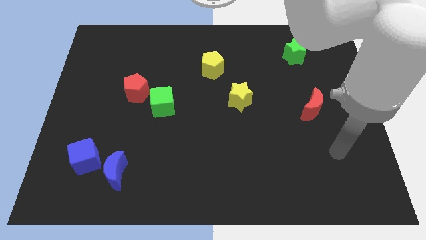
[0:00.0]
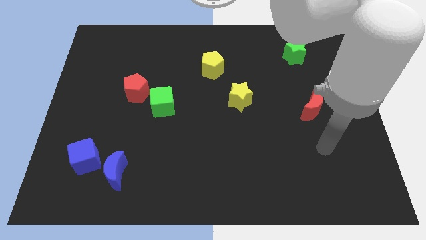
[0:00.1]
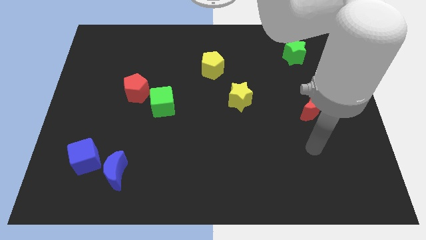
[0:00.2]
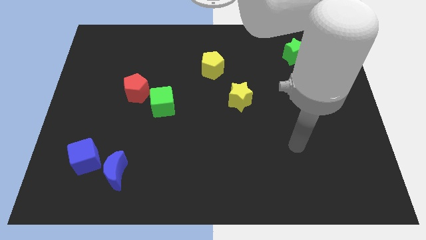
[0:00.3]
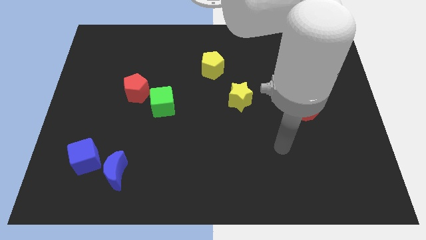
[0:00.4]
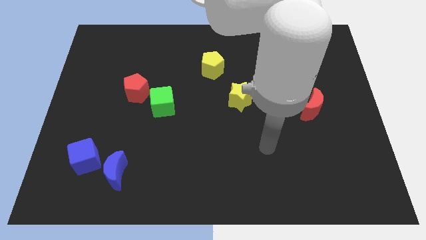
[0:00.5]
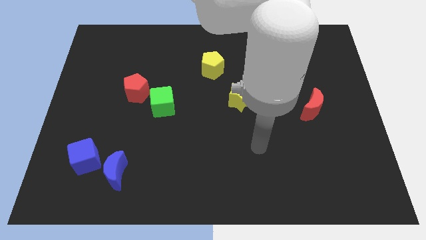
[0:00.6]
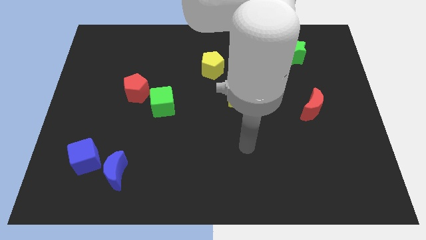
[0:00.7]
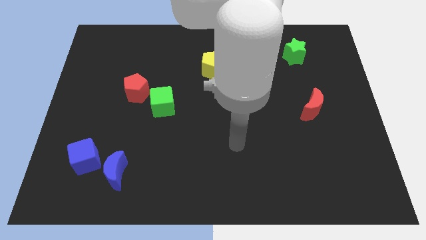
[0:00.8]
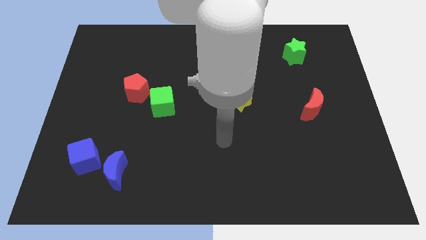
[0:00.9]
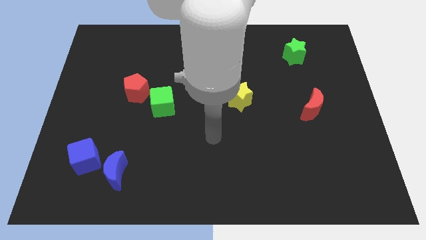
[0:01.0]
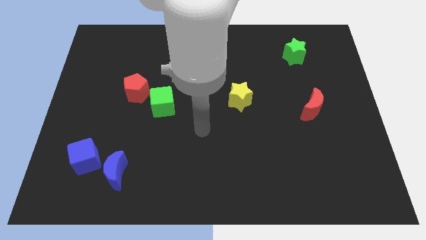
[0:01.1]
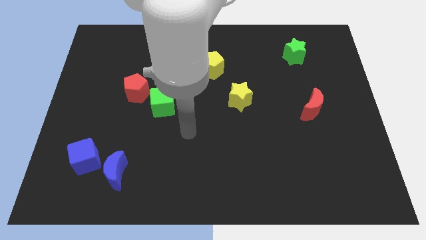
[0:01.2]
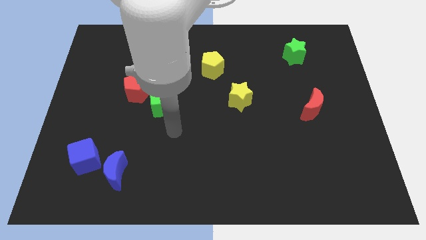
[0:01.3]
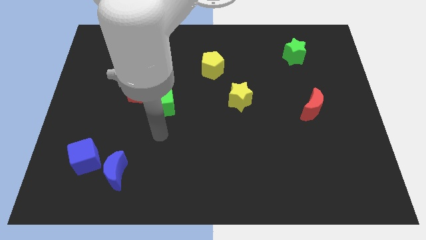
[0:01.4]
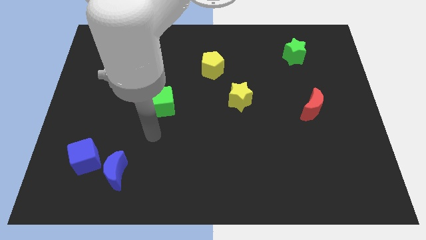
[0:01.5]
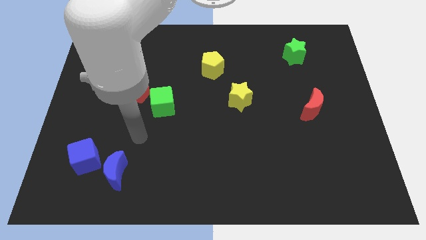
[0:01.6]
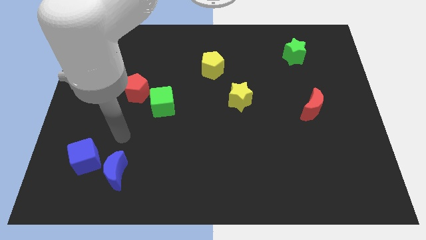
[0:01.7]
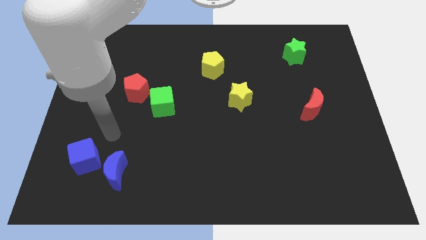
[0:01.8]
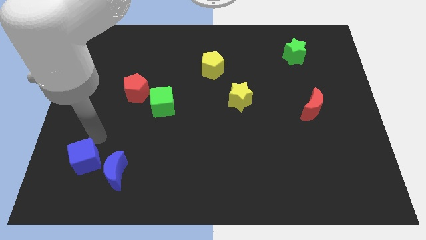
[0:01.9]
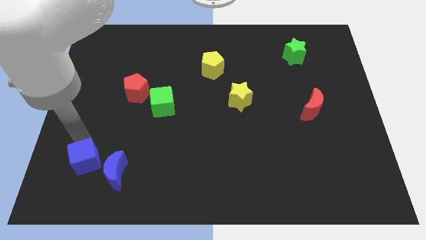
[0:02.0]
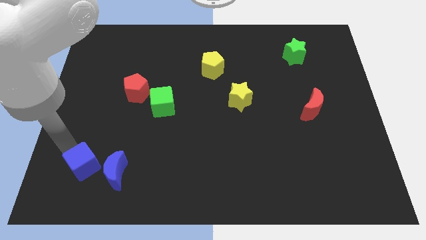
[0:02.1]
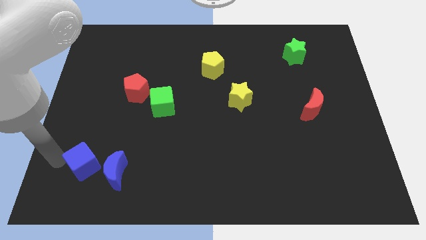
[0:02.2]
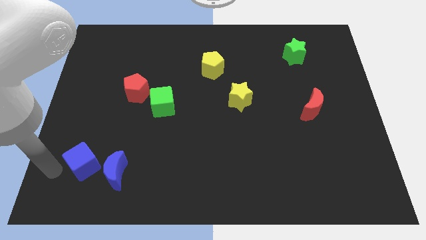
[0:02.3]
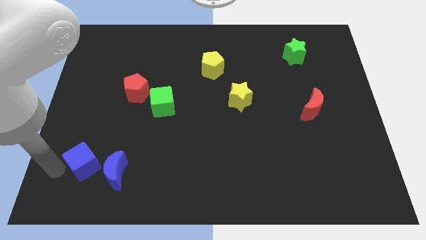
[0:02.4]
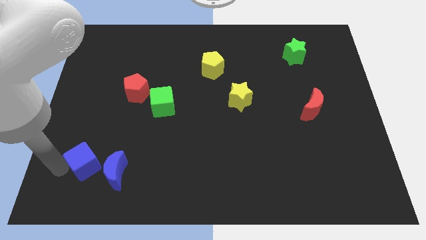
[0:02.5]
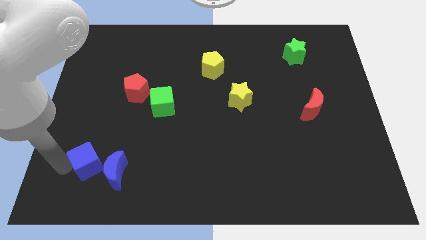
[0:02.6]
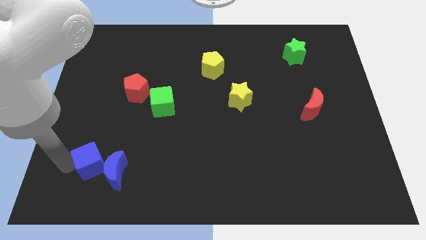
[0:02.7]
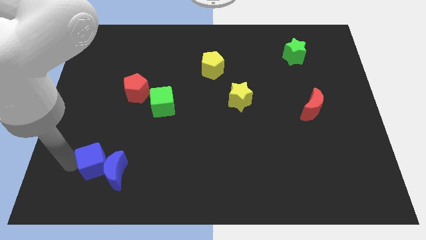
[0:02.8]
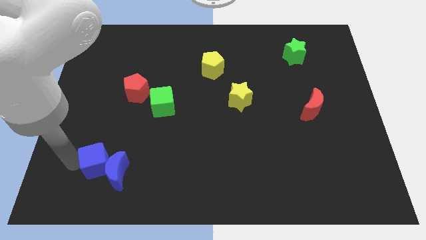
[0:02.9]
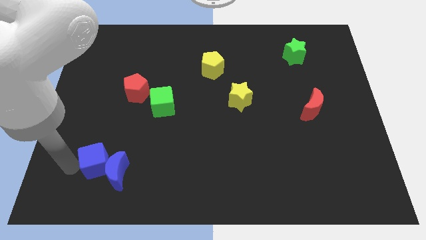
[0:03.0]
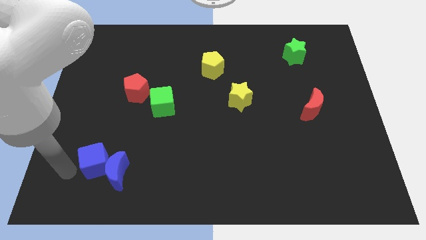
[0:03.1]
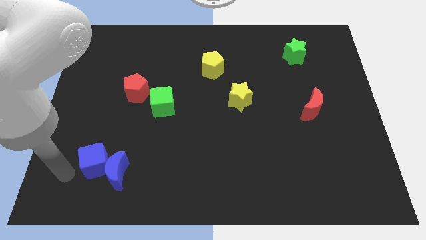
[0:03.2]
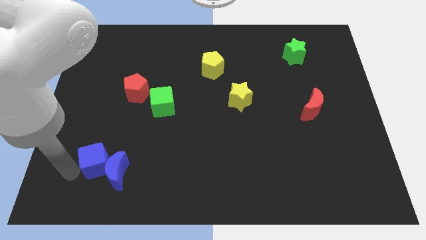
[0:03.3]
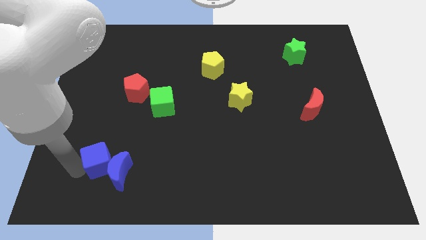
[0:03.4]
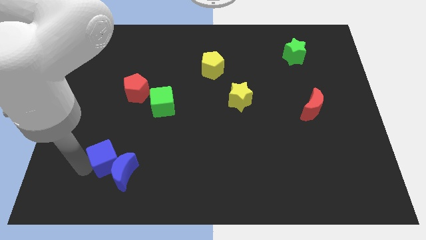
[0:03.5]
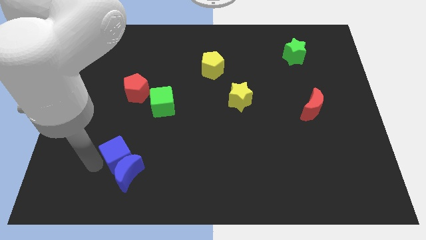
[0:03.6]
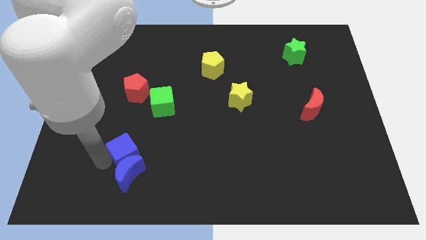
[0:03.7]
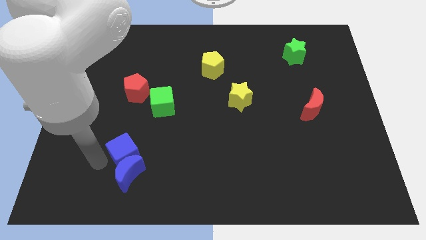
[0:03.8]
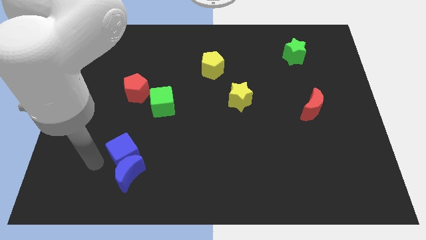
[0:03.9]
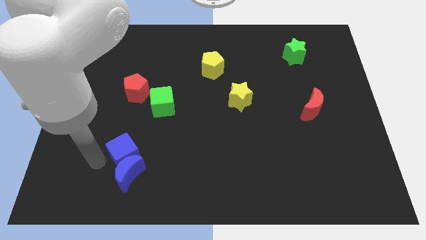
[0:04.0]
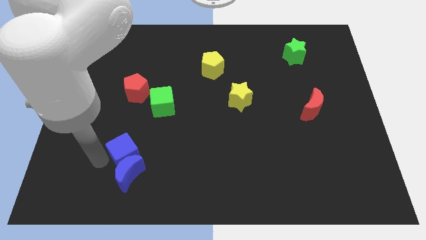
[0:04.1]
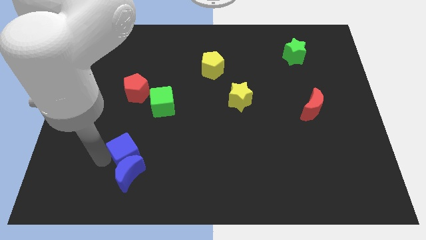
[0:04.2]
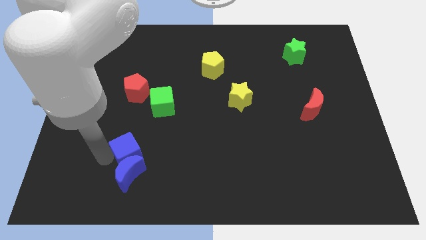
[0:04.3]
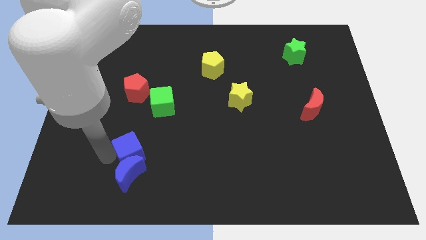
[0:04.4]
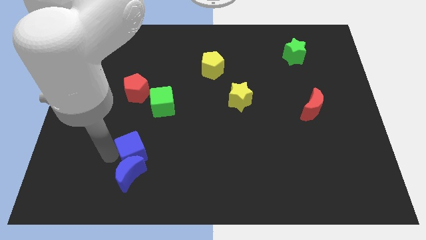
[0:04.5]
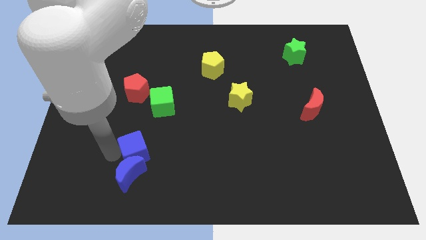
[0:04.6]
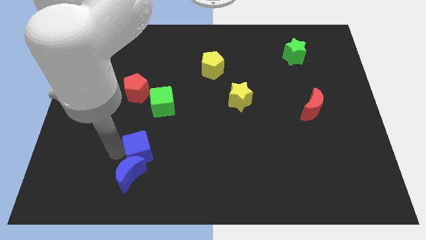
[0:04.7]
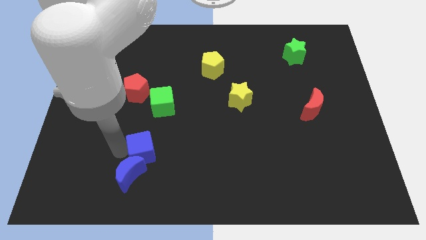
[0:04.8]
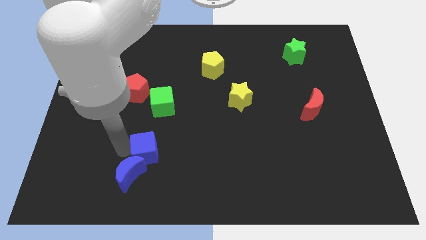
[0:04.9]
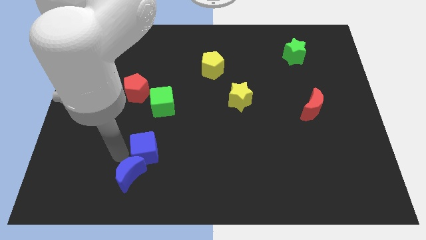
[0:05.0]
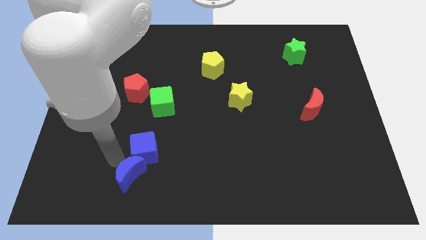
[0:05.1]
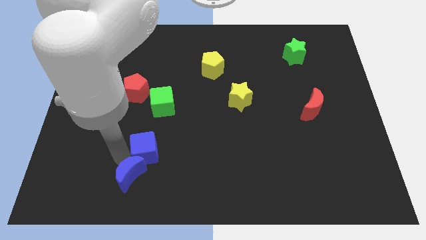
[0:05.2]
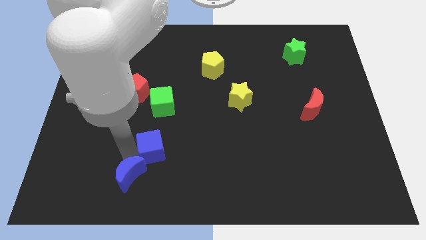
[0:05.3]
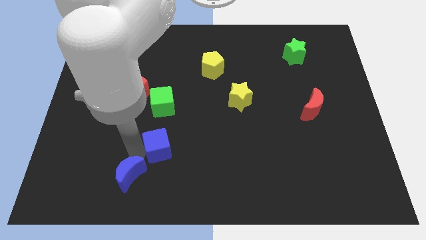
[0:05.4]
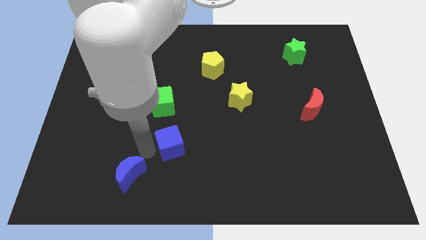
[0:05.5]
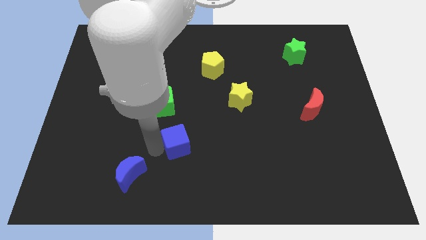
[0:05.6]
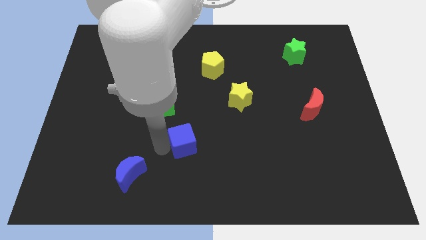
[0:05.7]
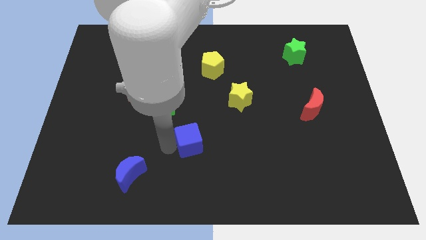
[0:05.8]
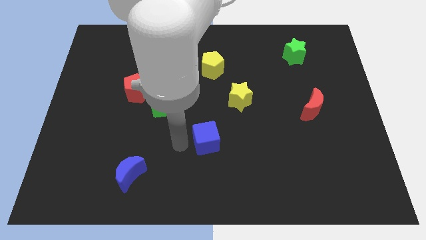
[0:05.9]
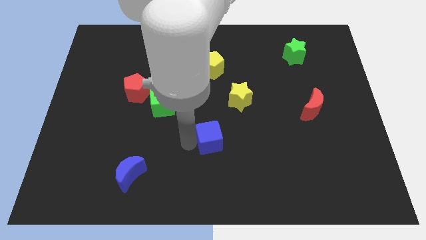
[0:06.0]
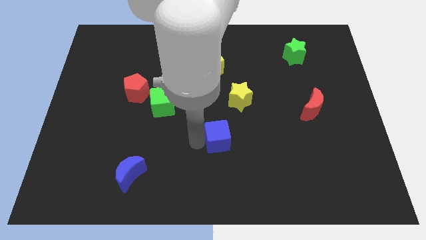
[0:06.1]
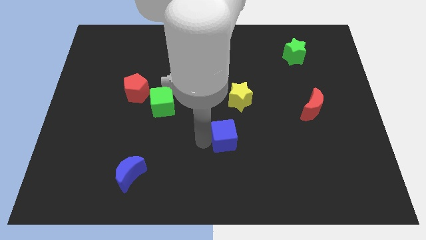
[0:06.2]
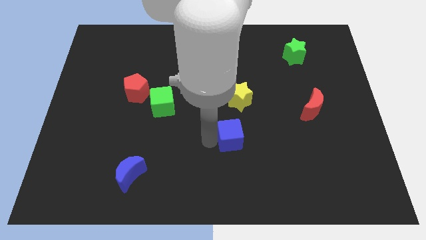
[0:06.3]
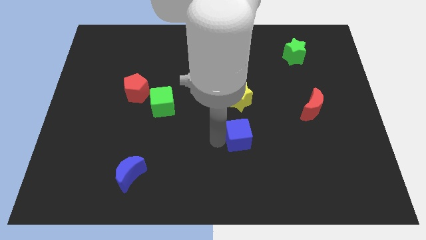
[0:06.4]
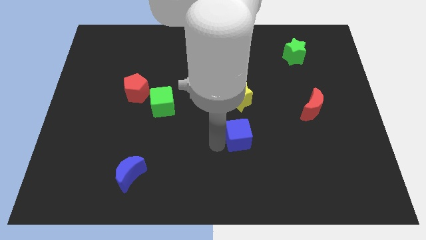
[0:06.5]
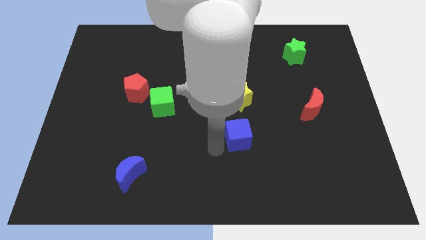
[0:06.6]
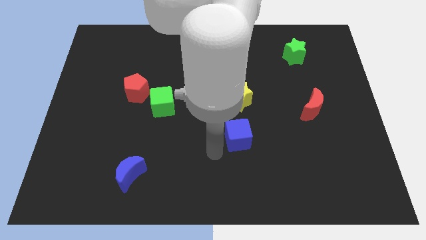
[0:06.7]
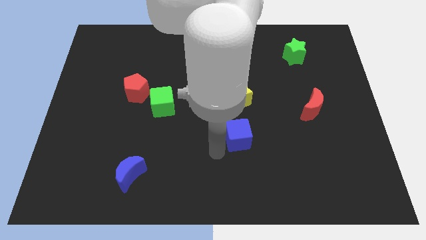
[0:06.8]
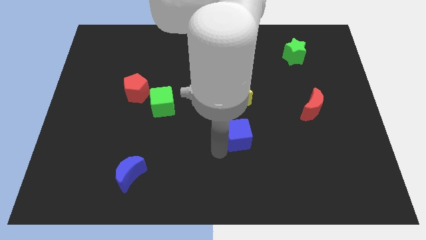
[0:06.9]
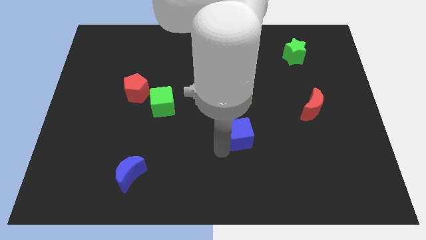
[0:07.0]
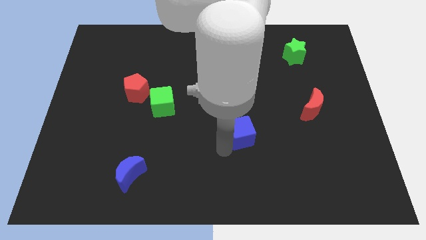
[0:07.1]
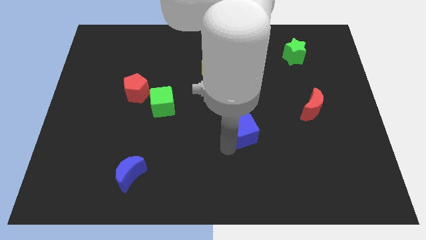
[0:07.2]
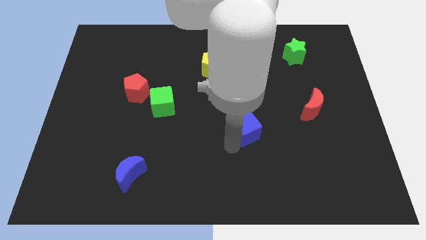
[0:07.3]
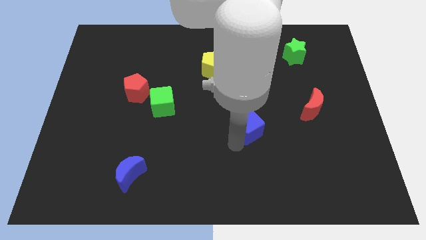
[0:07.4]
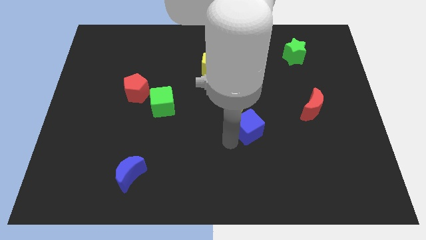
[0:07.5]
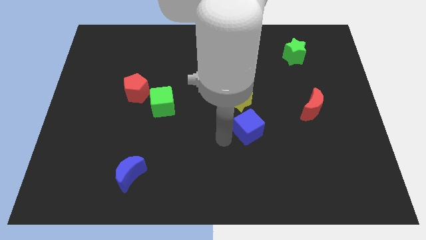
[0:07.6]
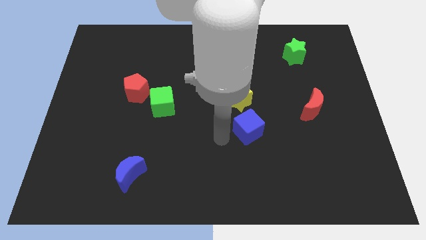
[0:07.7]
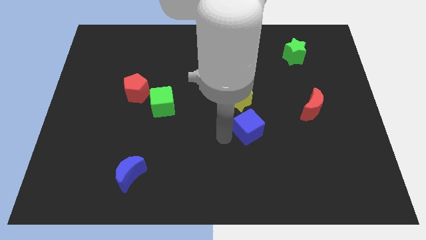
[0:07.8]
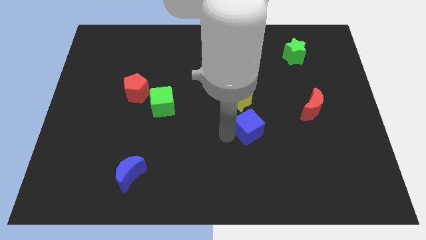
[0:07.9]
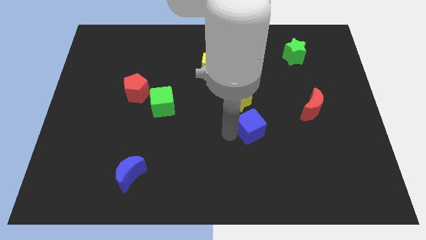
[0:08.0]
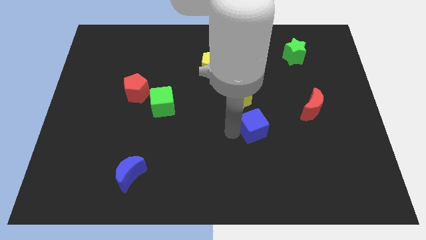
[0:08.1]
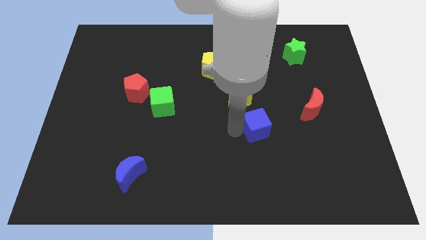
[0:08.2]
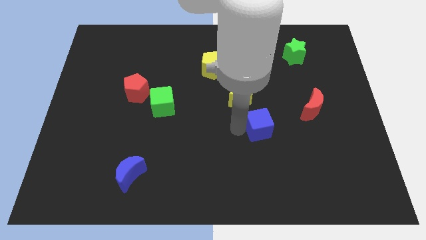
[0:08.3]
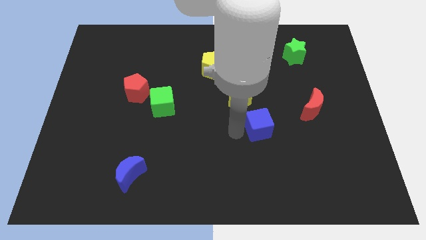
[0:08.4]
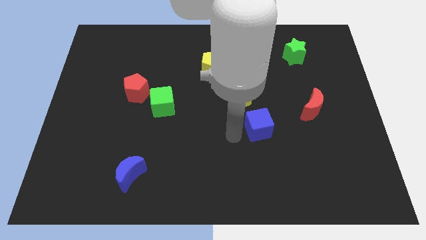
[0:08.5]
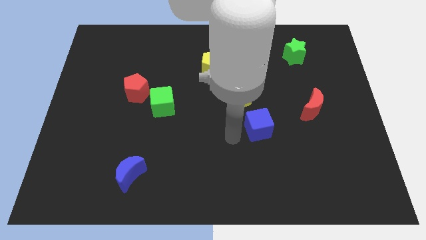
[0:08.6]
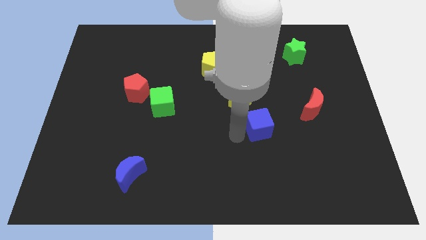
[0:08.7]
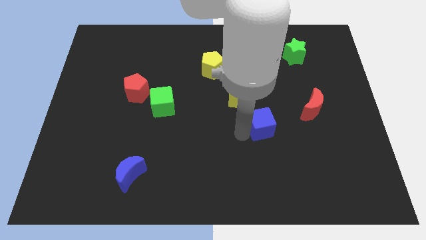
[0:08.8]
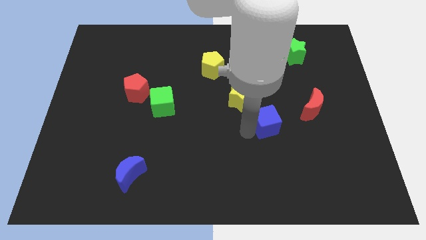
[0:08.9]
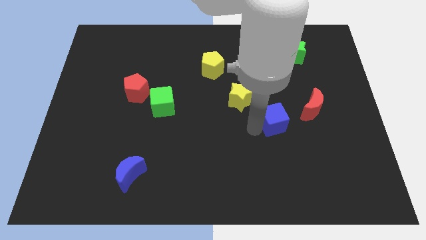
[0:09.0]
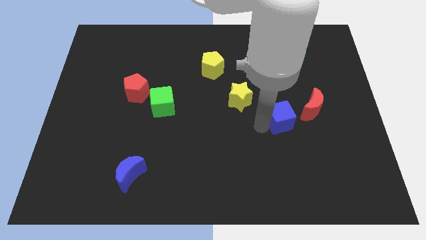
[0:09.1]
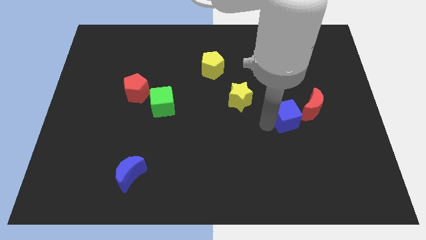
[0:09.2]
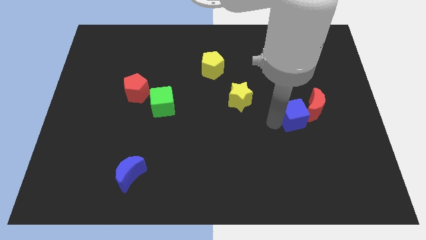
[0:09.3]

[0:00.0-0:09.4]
move the blue cube next to the red moon
